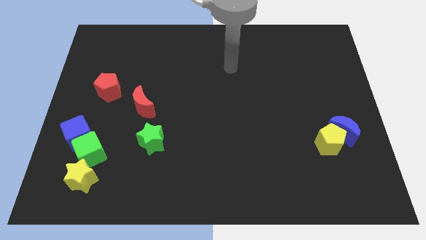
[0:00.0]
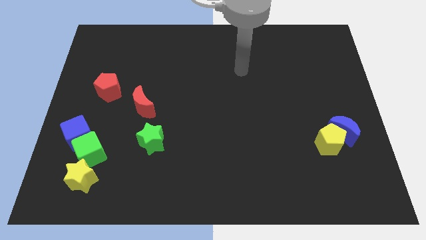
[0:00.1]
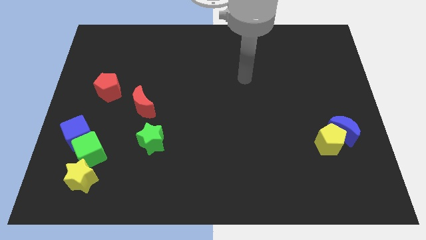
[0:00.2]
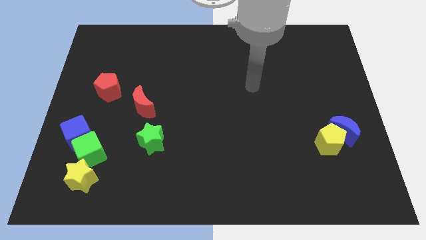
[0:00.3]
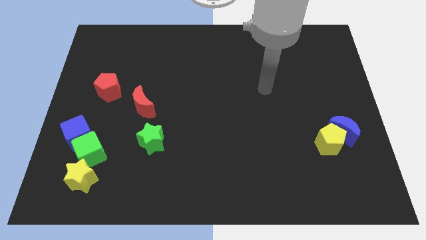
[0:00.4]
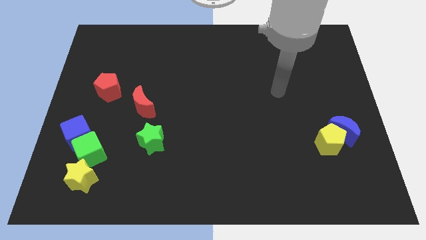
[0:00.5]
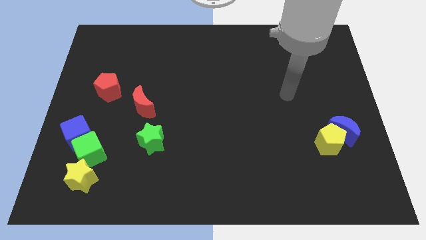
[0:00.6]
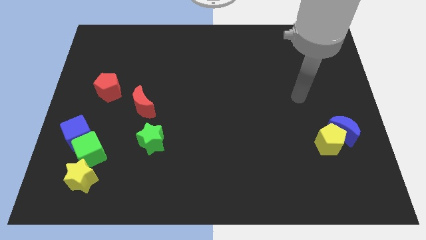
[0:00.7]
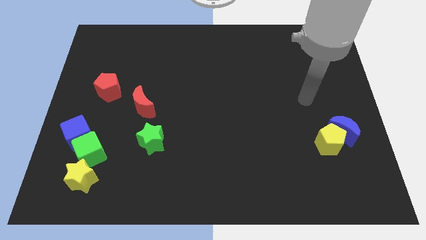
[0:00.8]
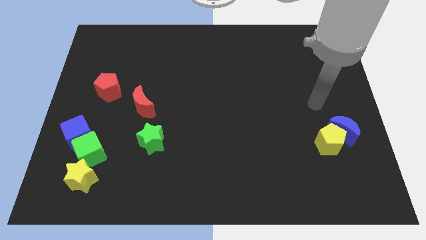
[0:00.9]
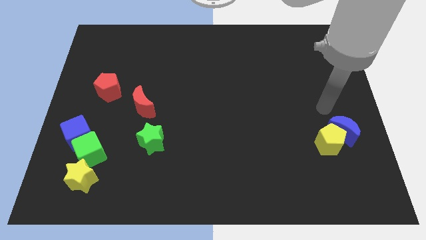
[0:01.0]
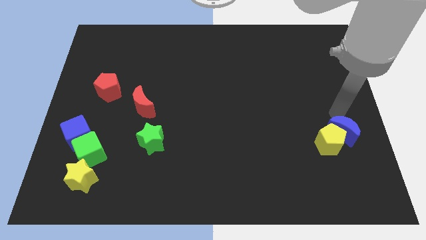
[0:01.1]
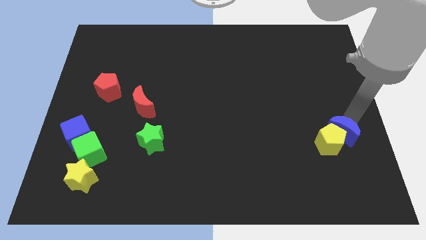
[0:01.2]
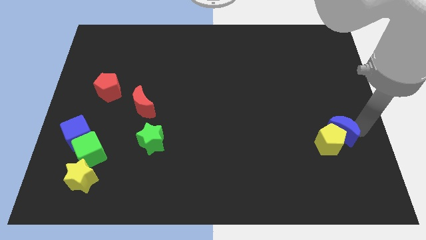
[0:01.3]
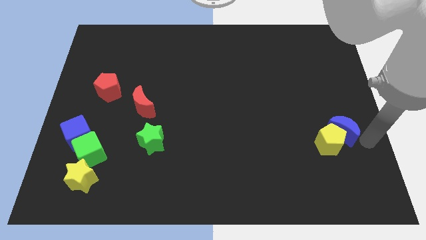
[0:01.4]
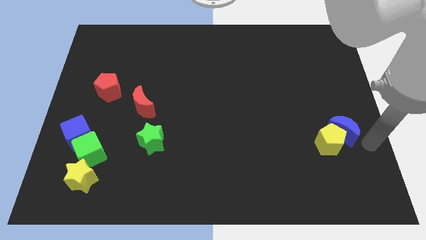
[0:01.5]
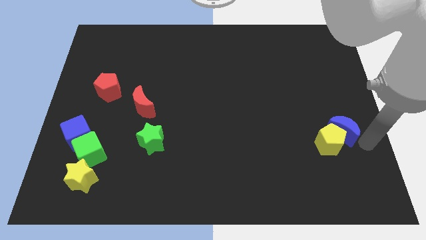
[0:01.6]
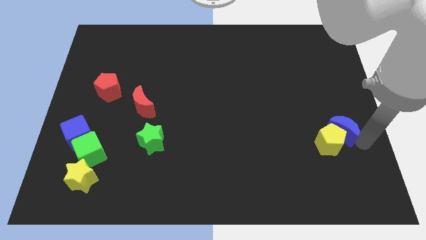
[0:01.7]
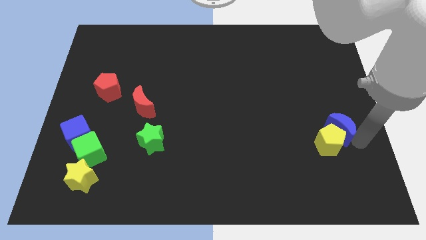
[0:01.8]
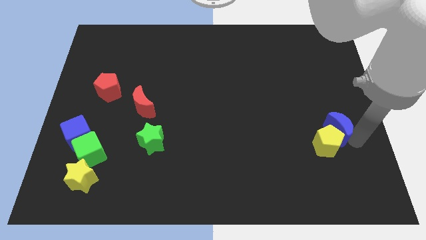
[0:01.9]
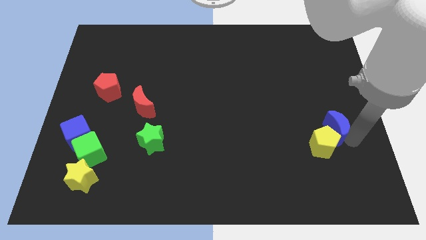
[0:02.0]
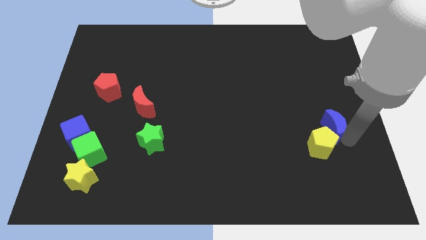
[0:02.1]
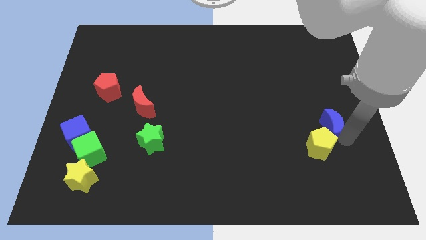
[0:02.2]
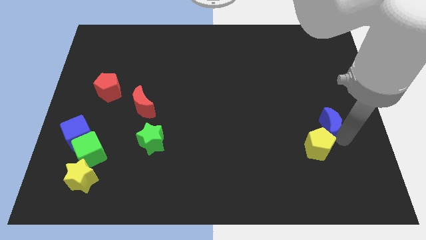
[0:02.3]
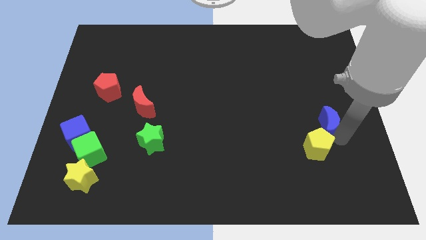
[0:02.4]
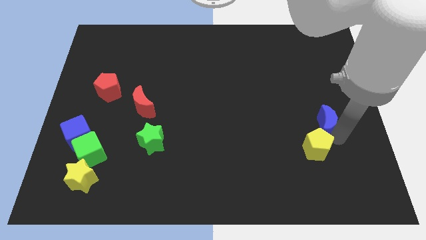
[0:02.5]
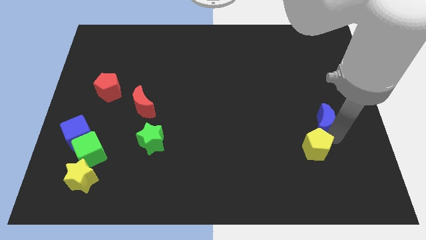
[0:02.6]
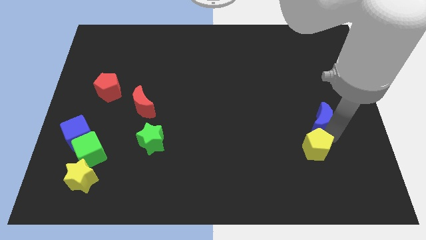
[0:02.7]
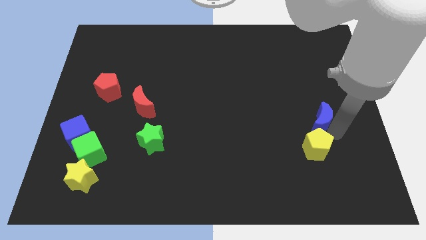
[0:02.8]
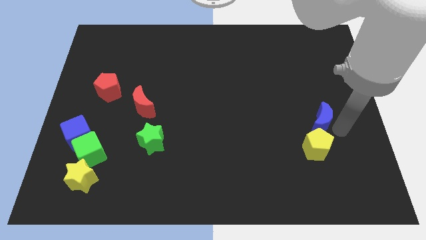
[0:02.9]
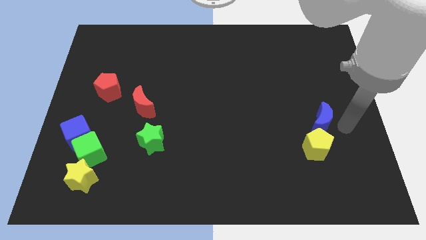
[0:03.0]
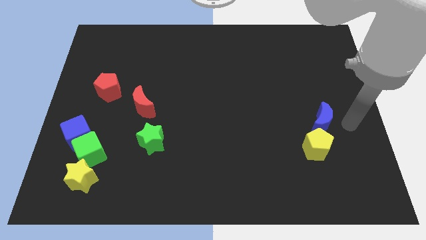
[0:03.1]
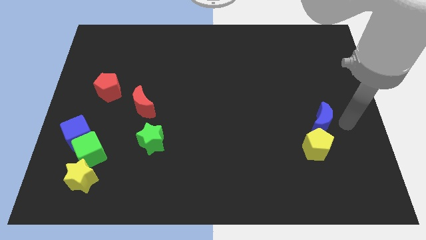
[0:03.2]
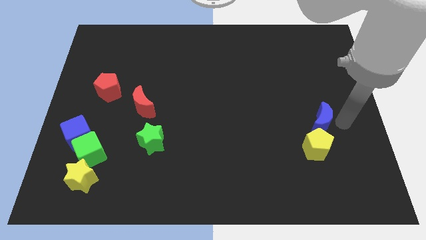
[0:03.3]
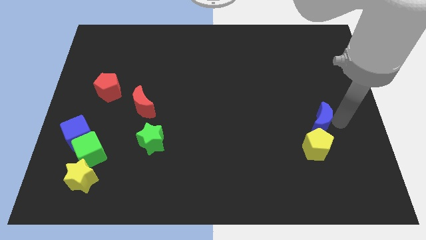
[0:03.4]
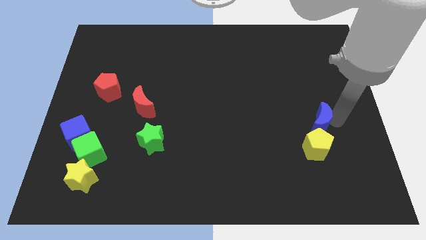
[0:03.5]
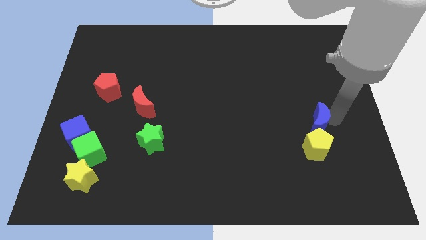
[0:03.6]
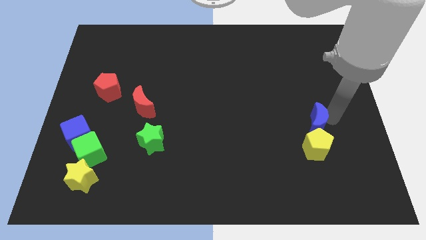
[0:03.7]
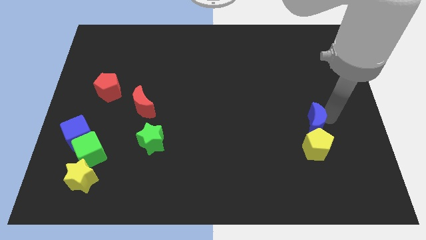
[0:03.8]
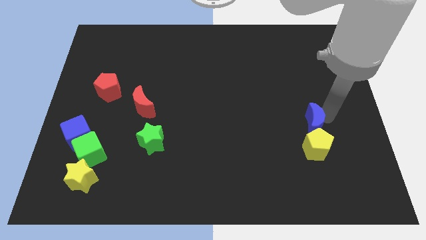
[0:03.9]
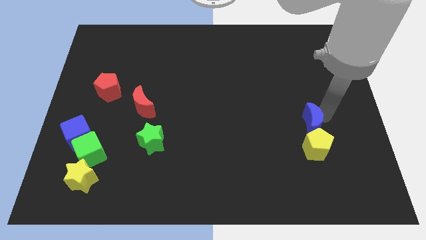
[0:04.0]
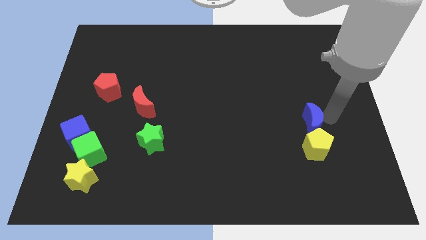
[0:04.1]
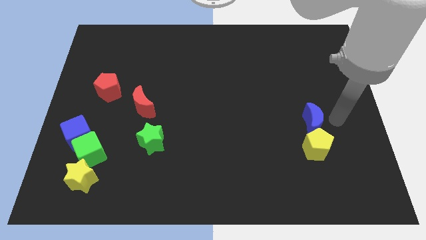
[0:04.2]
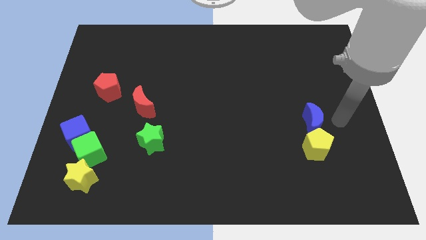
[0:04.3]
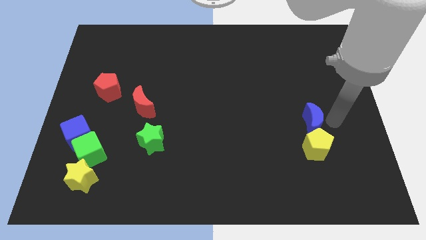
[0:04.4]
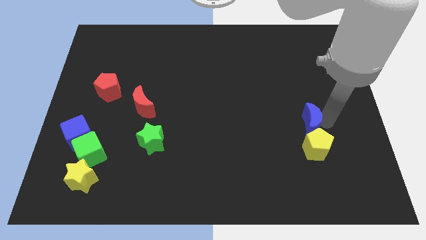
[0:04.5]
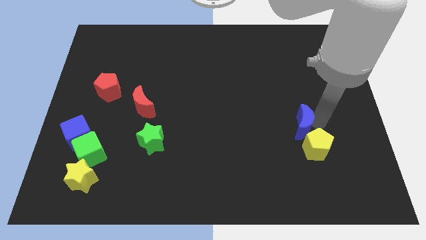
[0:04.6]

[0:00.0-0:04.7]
push the blue moon a little bit left

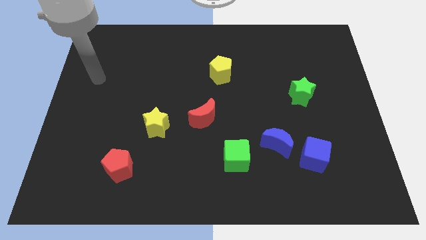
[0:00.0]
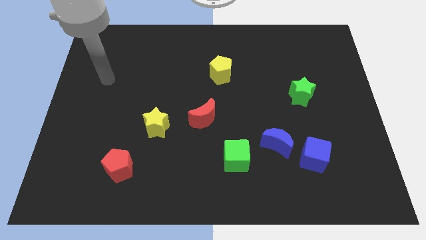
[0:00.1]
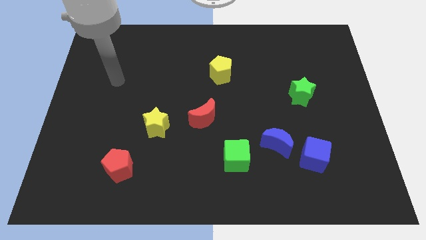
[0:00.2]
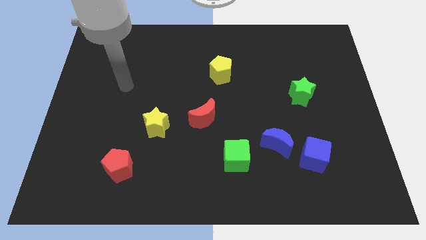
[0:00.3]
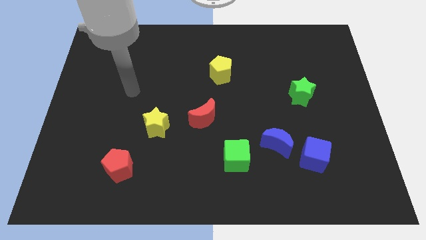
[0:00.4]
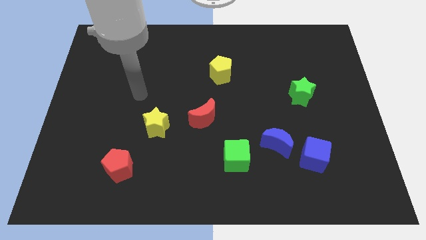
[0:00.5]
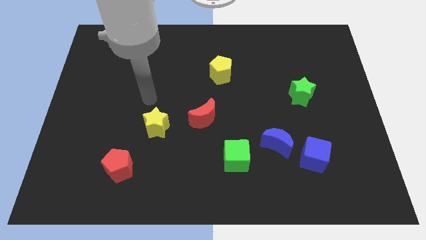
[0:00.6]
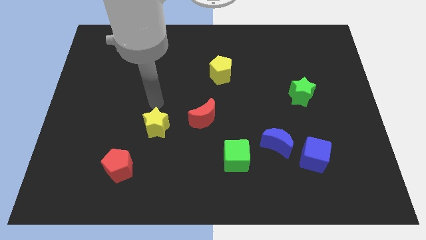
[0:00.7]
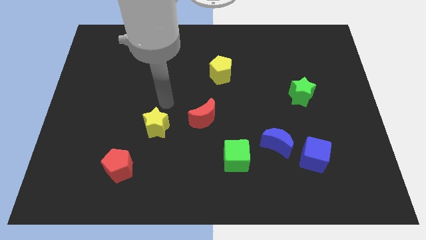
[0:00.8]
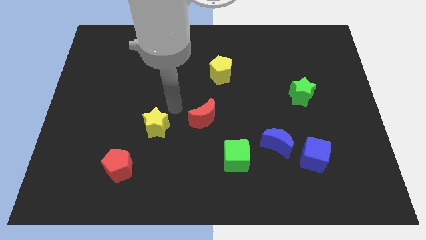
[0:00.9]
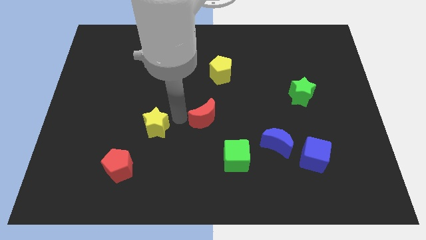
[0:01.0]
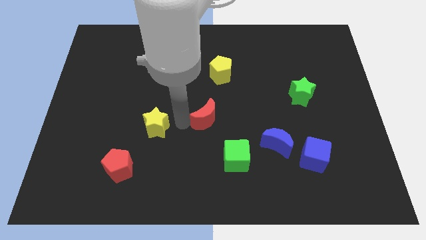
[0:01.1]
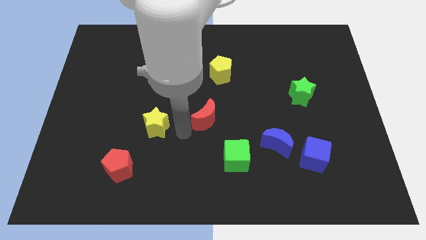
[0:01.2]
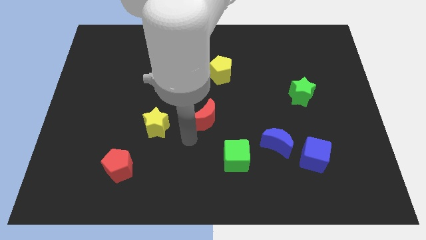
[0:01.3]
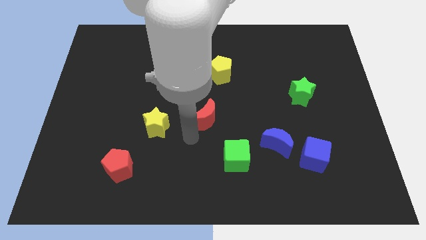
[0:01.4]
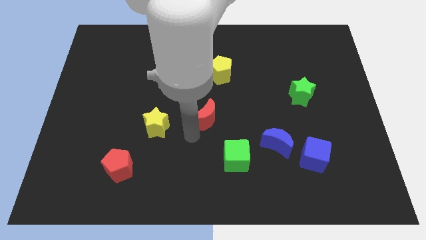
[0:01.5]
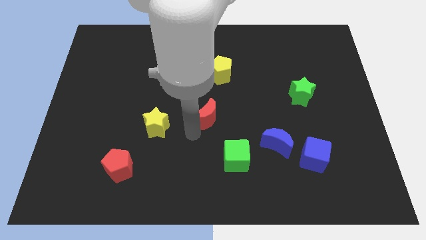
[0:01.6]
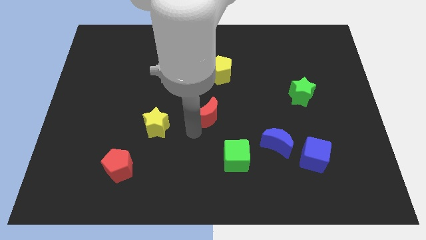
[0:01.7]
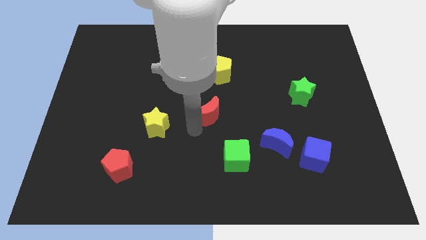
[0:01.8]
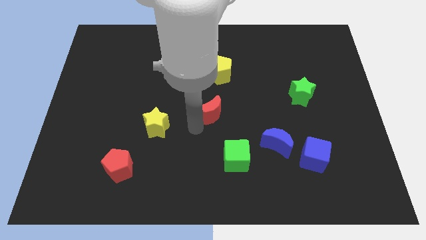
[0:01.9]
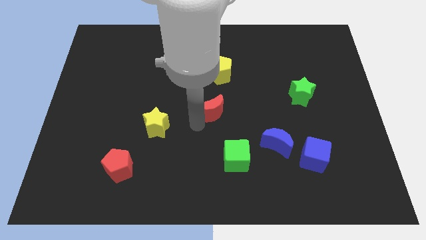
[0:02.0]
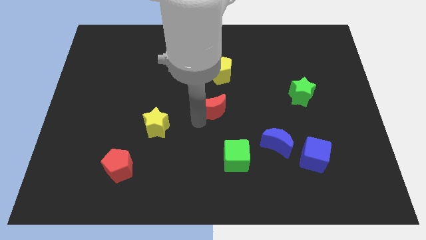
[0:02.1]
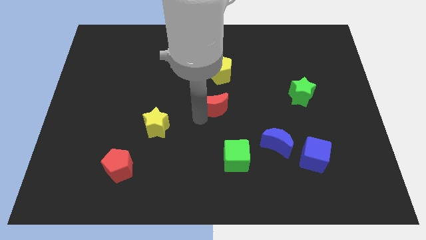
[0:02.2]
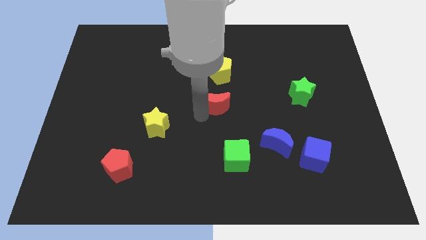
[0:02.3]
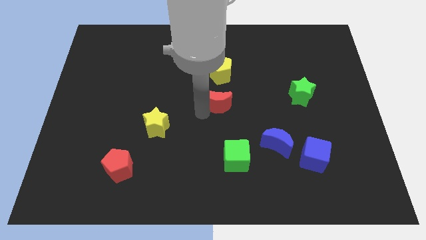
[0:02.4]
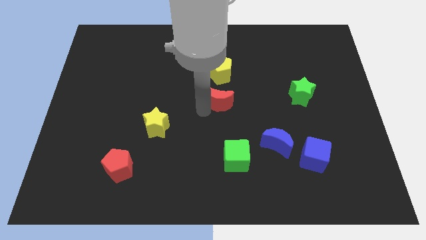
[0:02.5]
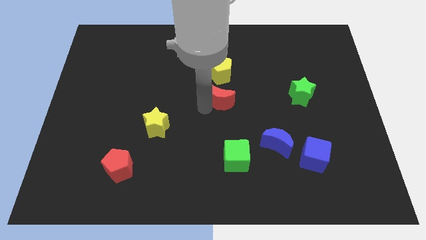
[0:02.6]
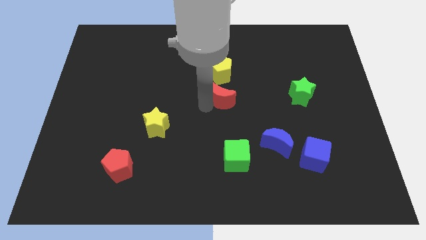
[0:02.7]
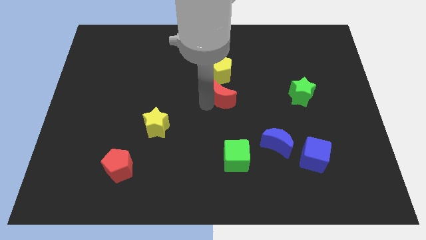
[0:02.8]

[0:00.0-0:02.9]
slightly push the red moon upwards and then to the right

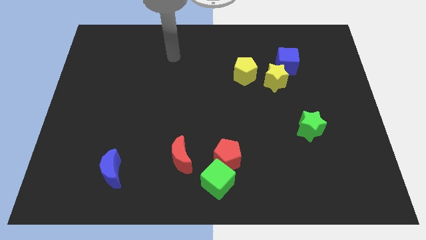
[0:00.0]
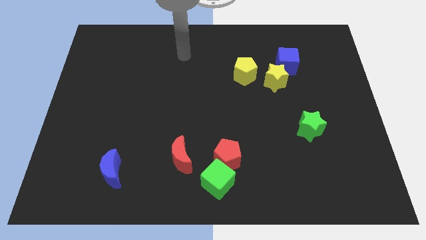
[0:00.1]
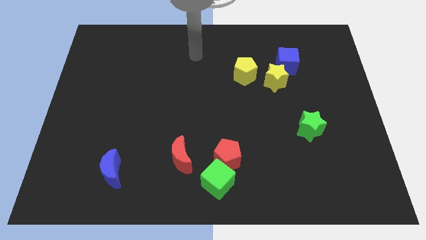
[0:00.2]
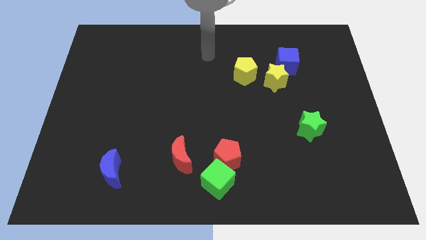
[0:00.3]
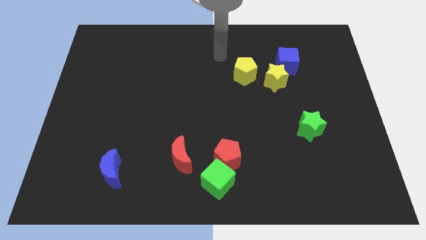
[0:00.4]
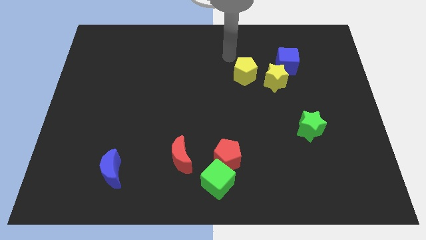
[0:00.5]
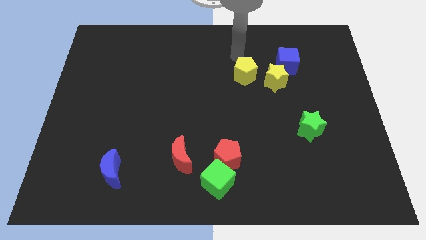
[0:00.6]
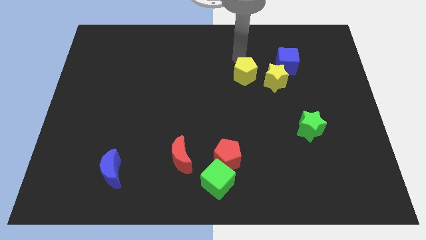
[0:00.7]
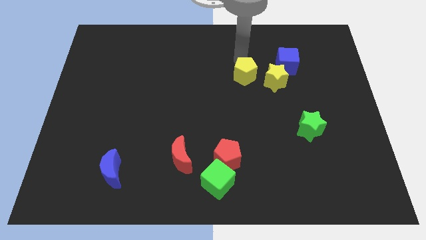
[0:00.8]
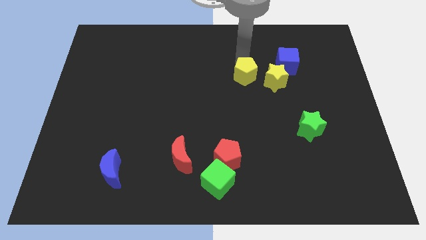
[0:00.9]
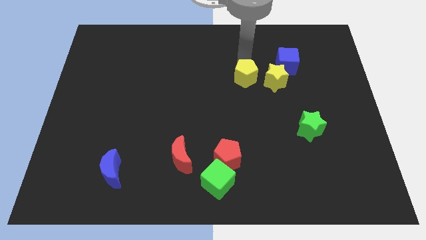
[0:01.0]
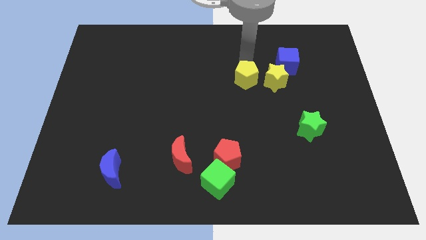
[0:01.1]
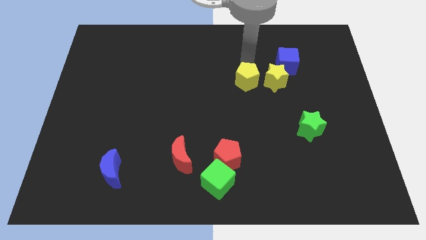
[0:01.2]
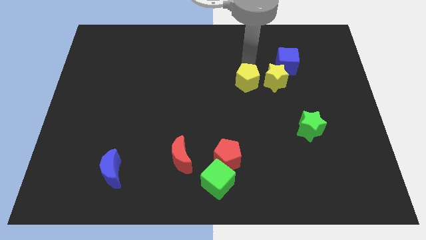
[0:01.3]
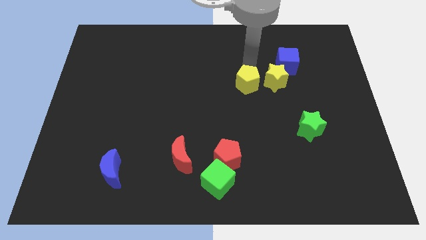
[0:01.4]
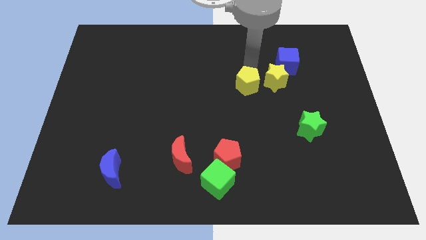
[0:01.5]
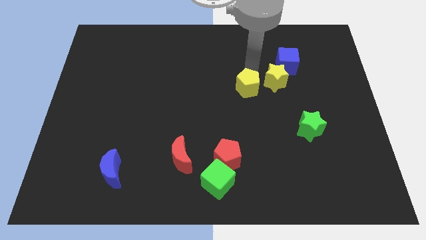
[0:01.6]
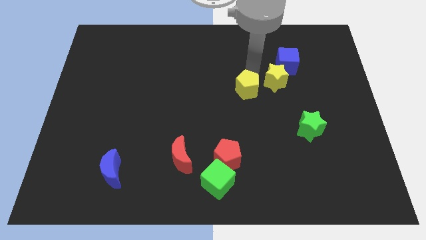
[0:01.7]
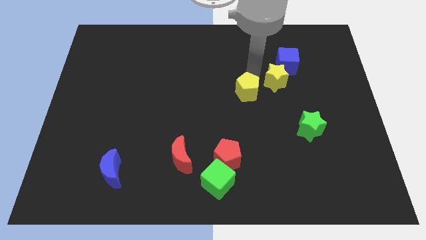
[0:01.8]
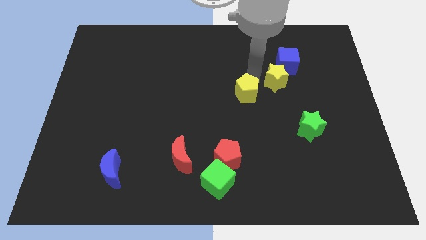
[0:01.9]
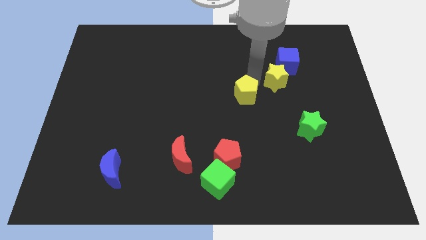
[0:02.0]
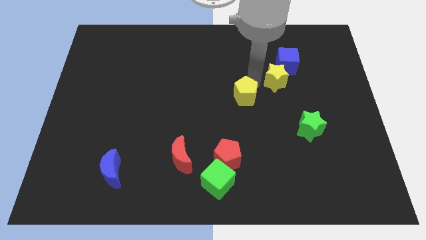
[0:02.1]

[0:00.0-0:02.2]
push the yellow pentagon downwards slightly
